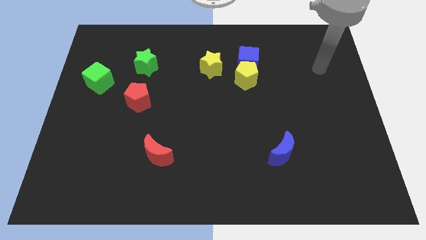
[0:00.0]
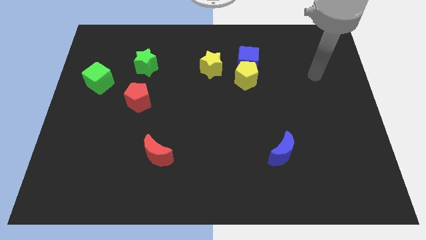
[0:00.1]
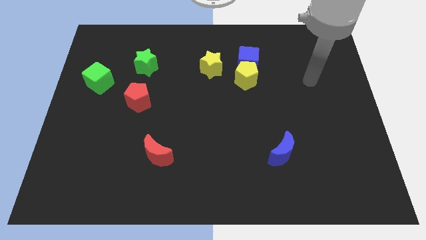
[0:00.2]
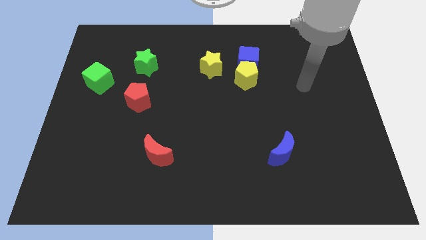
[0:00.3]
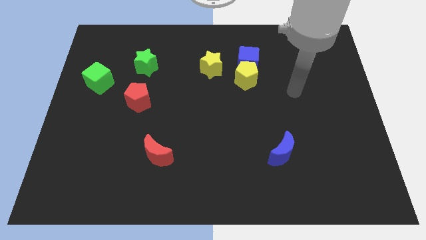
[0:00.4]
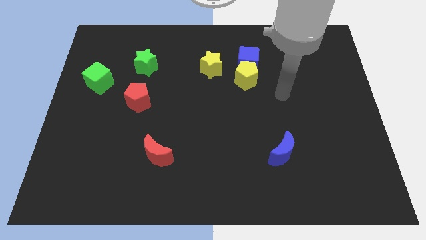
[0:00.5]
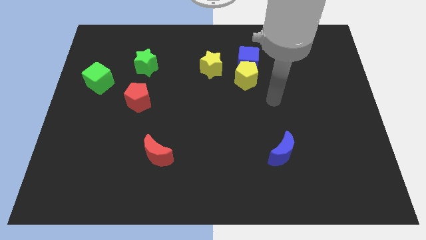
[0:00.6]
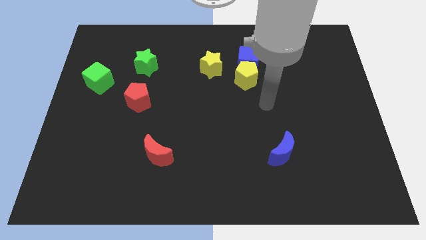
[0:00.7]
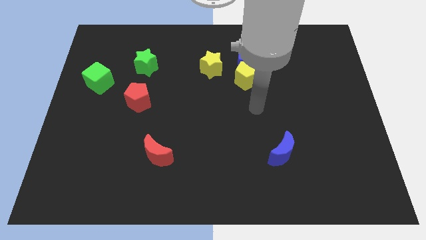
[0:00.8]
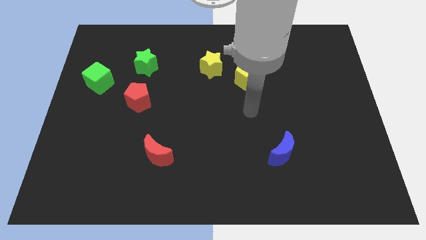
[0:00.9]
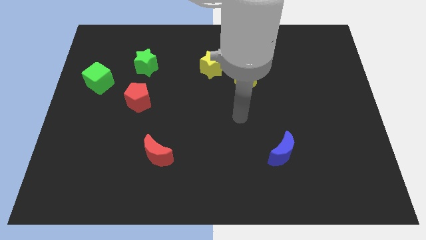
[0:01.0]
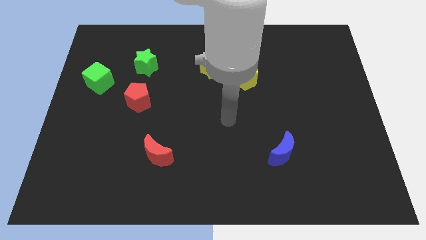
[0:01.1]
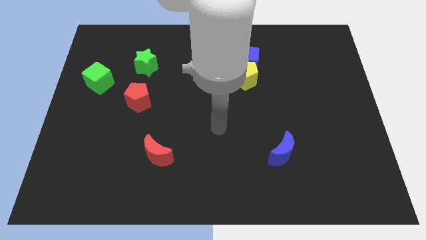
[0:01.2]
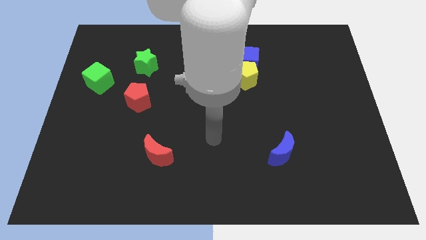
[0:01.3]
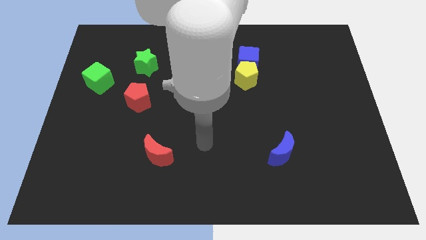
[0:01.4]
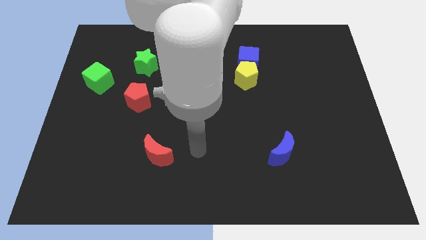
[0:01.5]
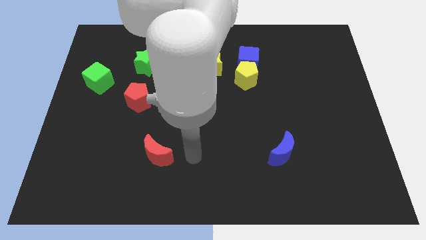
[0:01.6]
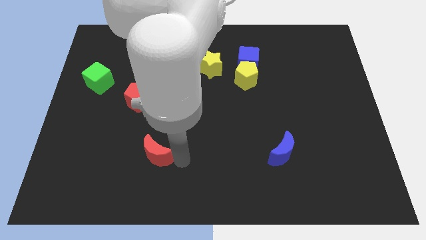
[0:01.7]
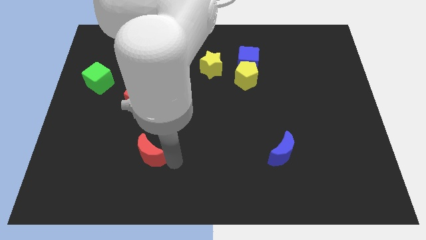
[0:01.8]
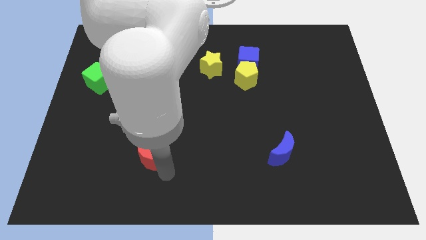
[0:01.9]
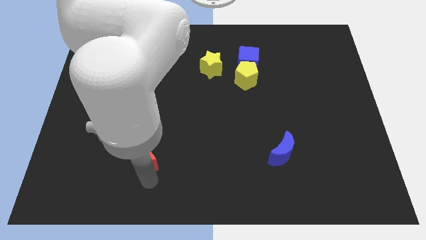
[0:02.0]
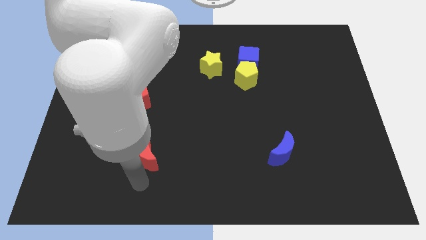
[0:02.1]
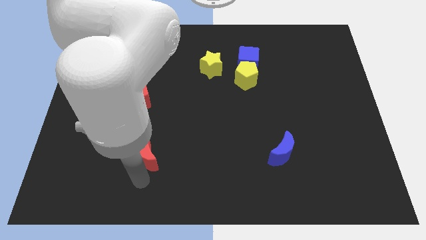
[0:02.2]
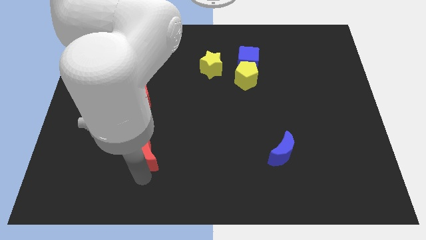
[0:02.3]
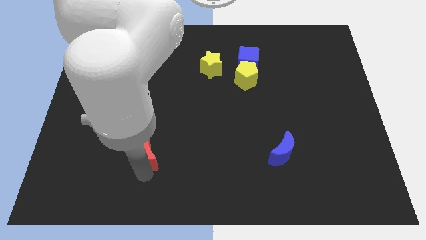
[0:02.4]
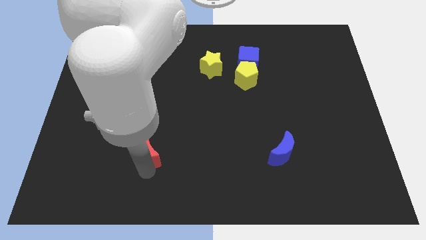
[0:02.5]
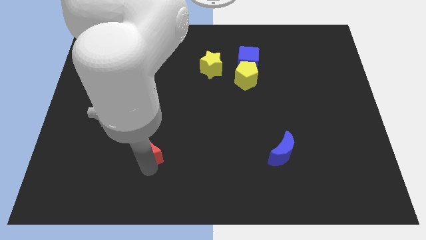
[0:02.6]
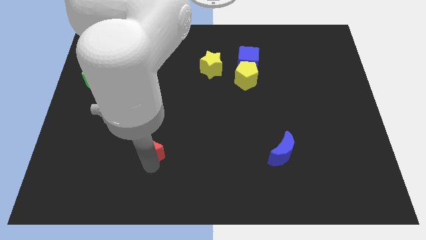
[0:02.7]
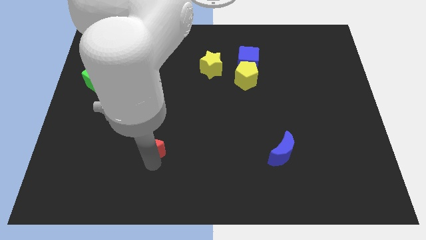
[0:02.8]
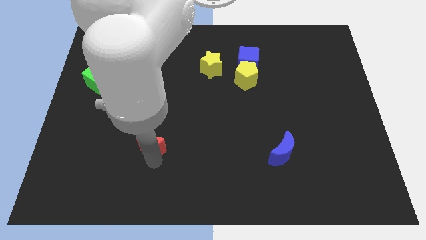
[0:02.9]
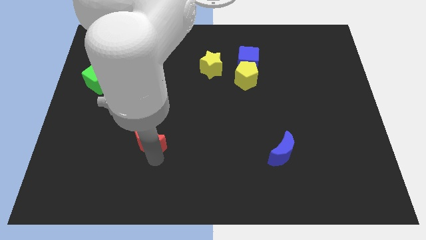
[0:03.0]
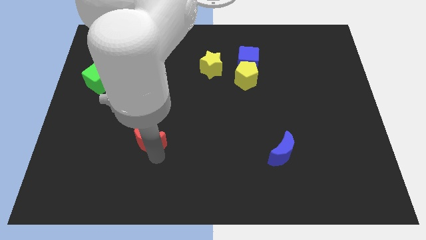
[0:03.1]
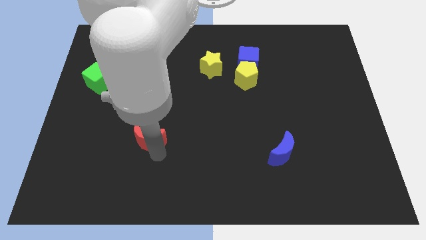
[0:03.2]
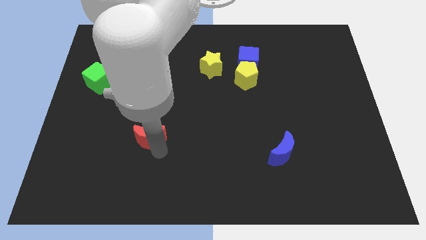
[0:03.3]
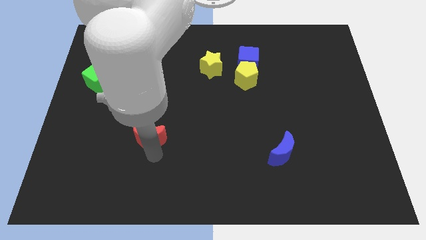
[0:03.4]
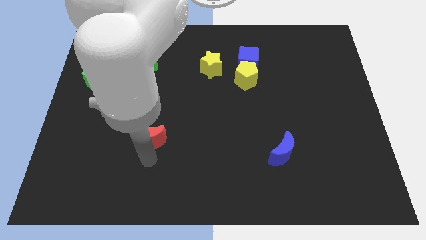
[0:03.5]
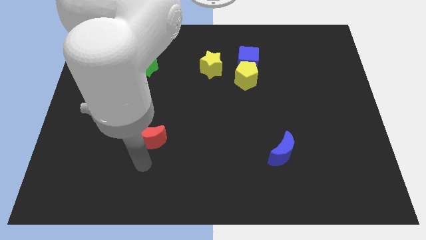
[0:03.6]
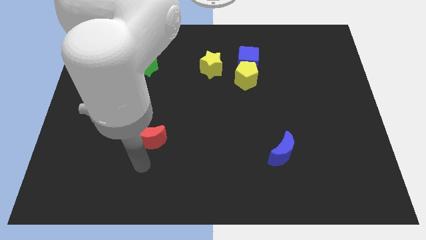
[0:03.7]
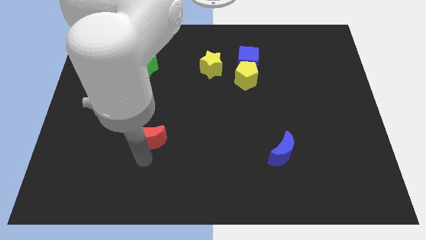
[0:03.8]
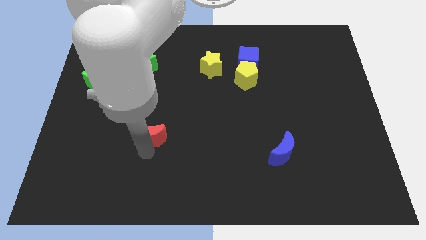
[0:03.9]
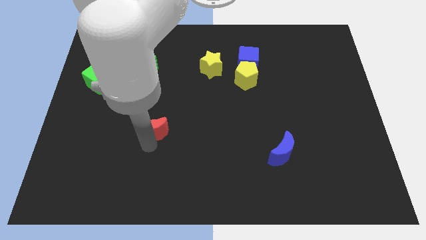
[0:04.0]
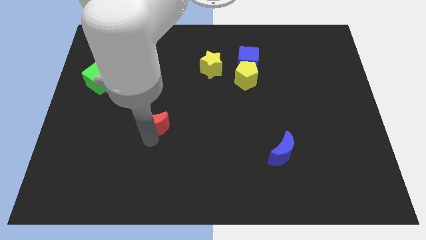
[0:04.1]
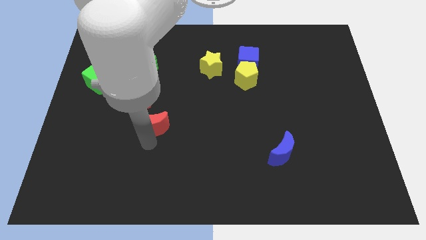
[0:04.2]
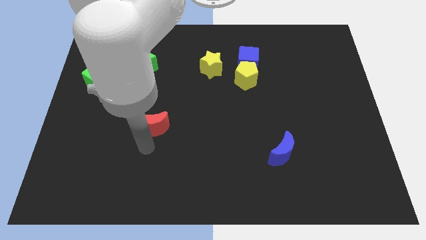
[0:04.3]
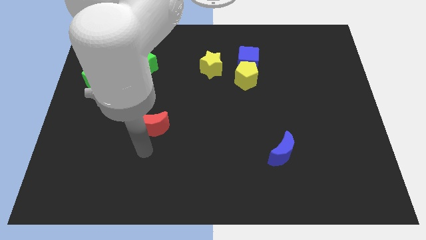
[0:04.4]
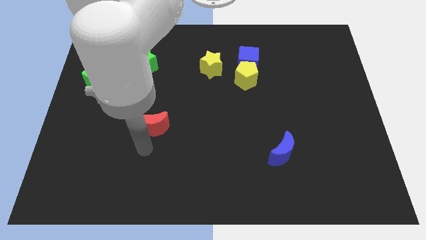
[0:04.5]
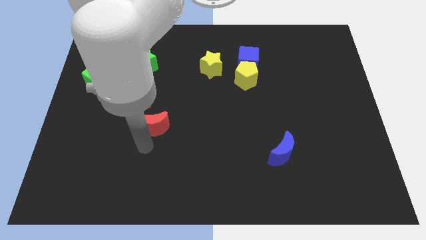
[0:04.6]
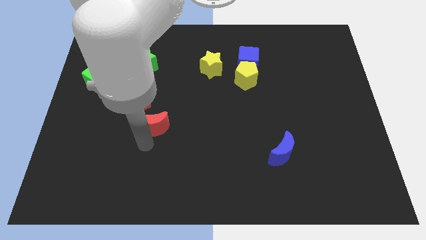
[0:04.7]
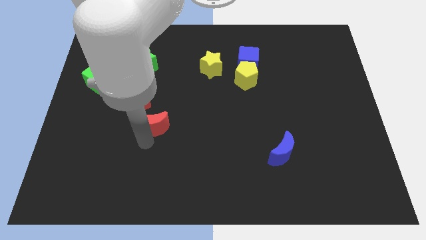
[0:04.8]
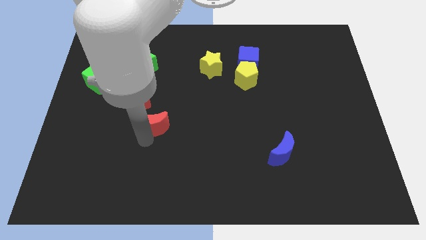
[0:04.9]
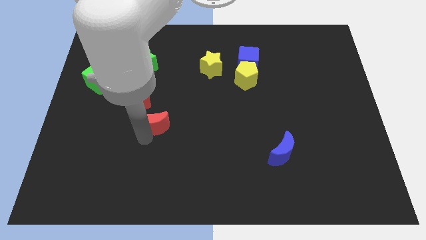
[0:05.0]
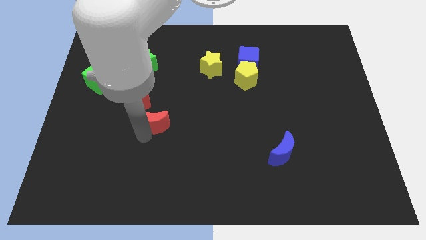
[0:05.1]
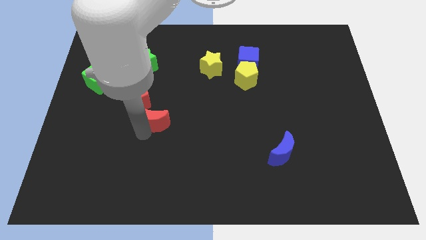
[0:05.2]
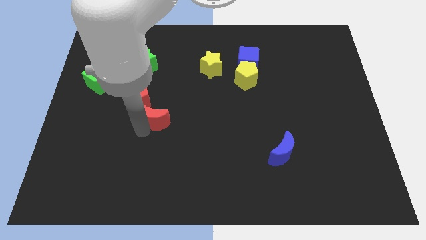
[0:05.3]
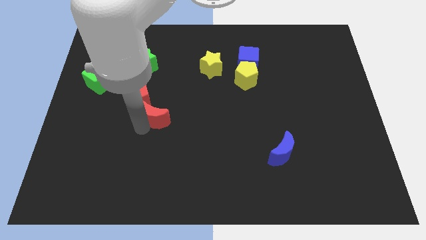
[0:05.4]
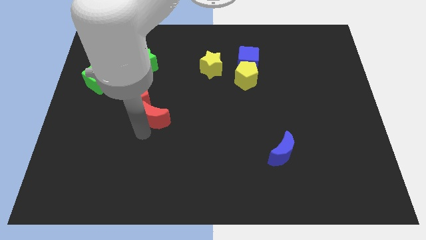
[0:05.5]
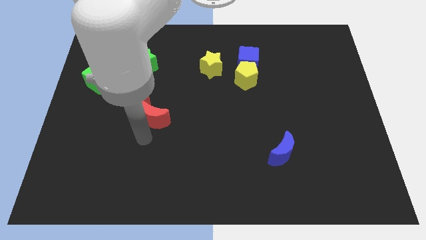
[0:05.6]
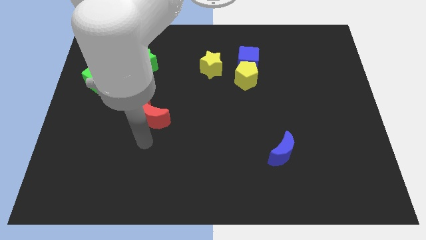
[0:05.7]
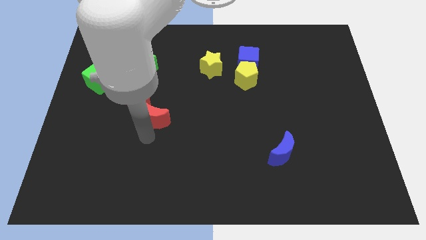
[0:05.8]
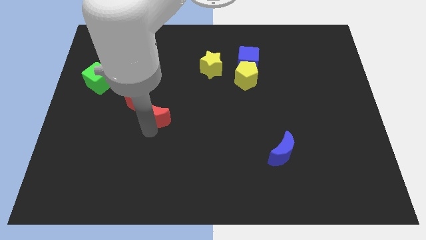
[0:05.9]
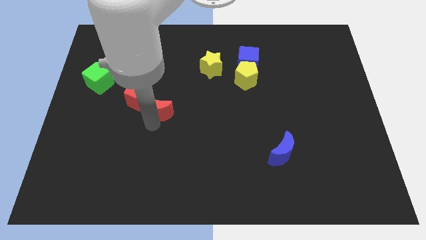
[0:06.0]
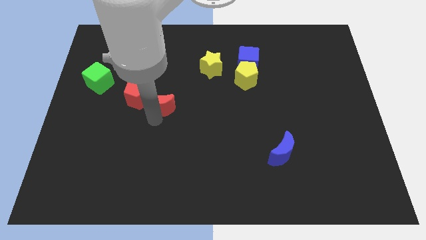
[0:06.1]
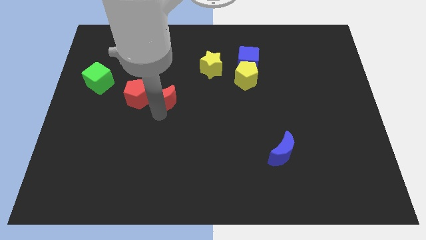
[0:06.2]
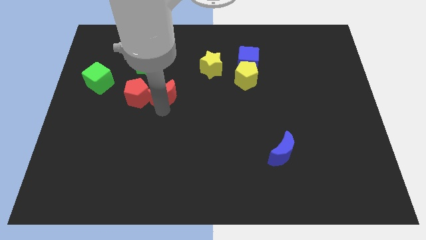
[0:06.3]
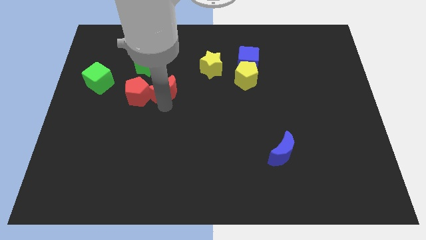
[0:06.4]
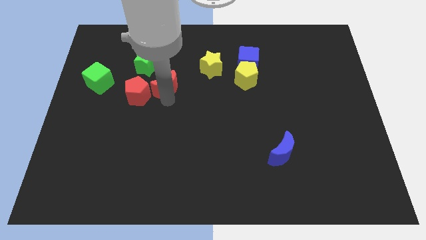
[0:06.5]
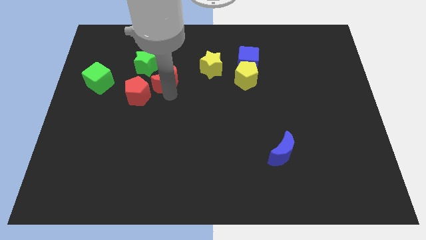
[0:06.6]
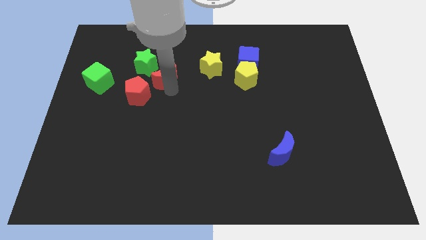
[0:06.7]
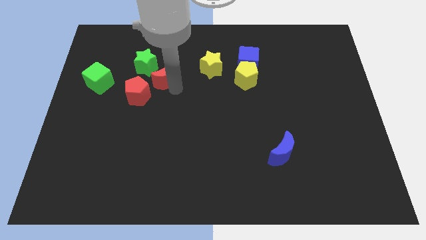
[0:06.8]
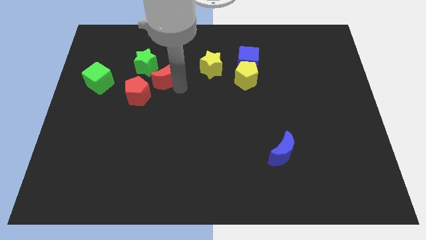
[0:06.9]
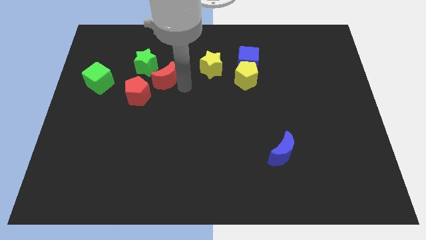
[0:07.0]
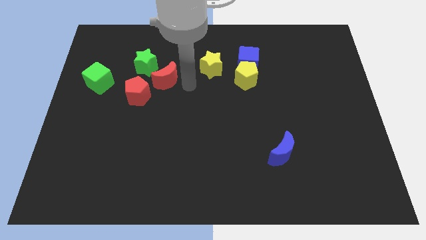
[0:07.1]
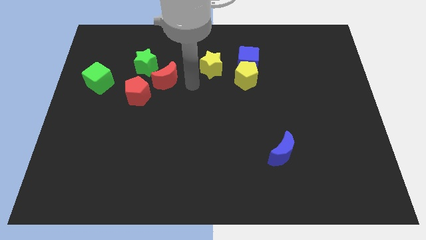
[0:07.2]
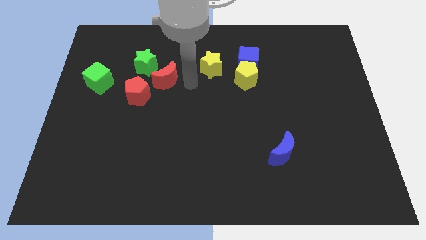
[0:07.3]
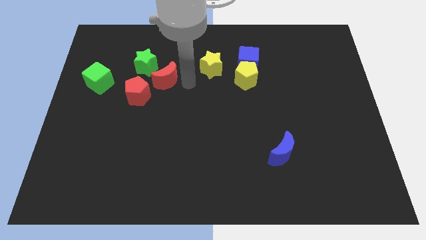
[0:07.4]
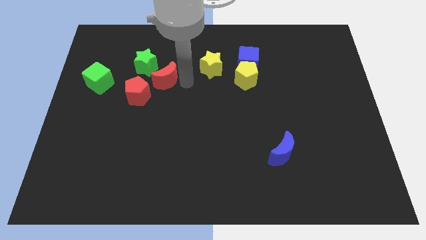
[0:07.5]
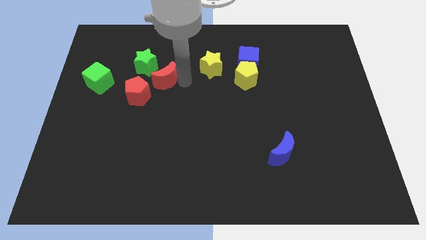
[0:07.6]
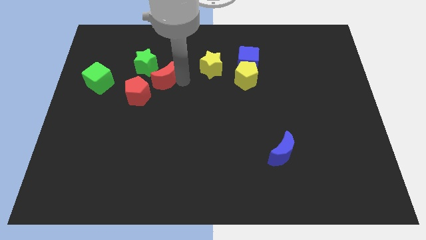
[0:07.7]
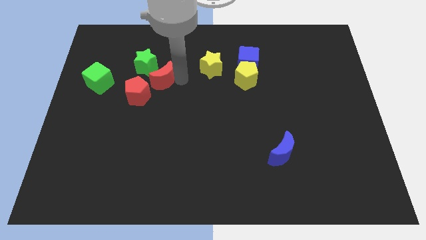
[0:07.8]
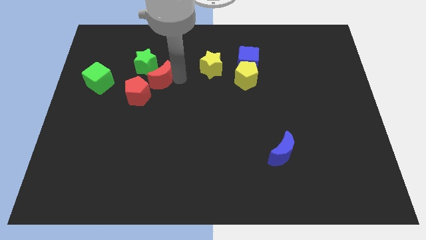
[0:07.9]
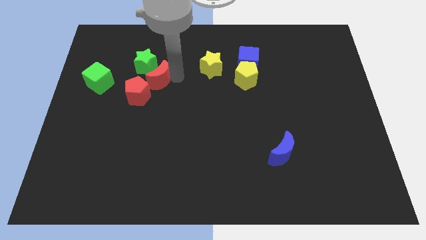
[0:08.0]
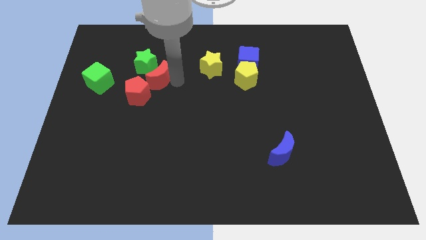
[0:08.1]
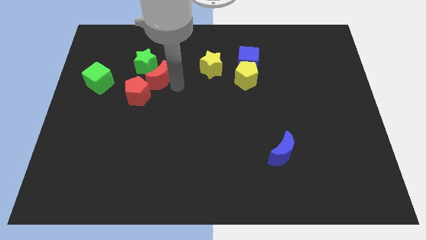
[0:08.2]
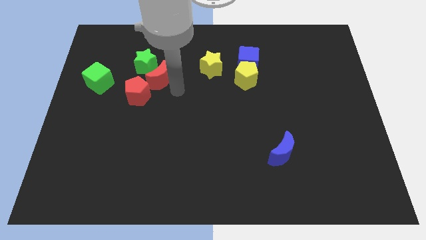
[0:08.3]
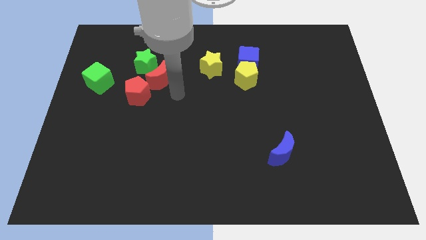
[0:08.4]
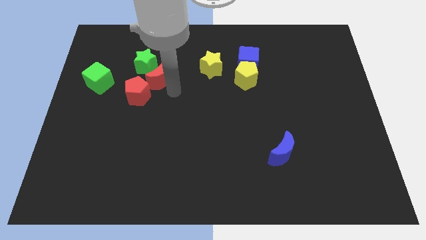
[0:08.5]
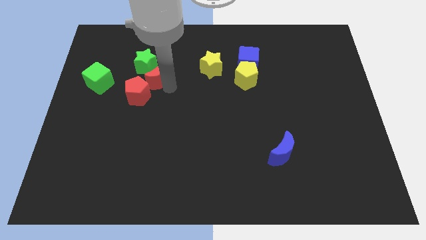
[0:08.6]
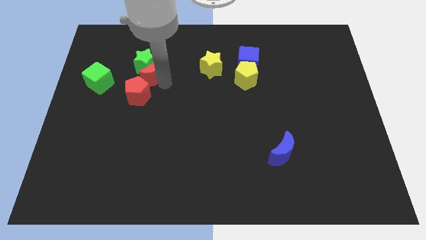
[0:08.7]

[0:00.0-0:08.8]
move the red moon next to the green star
